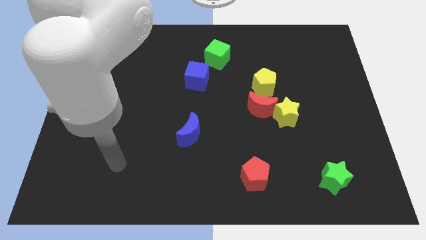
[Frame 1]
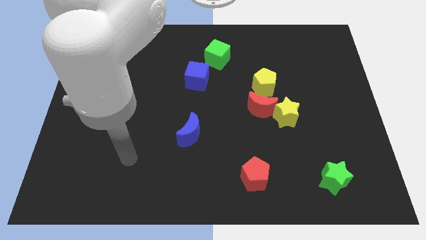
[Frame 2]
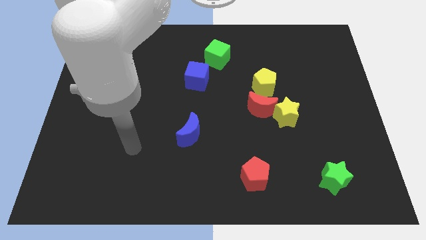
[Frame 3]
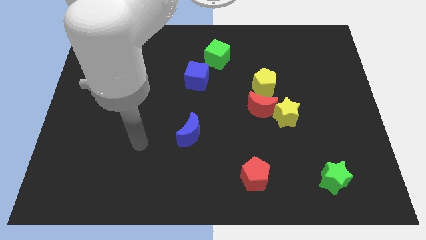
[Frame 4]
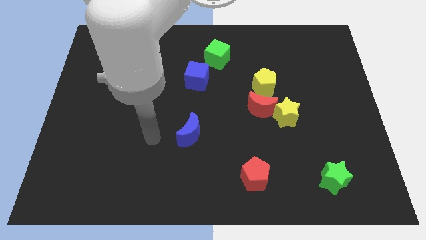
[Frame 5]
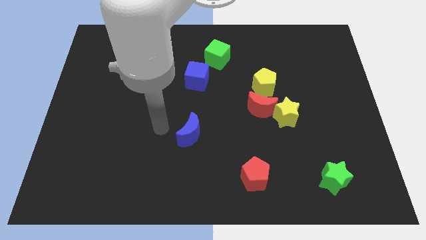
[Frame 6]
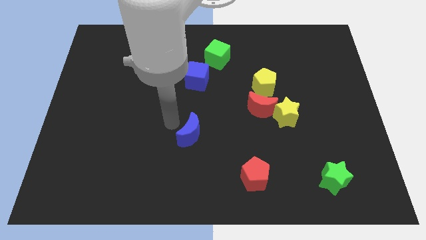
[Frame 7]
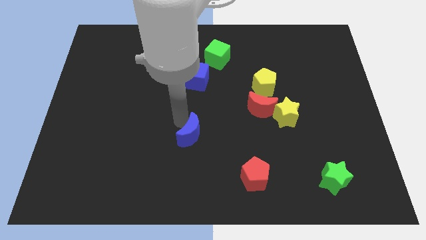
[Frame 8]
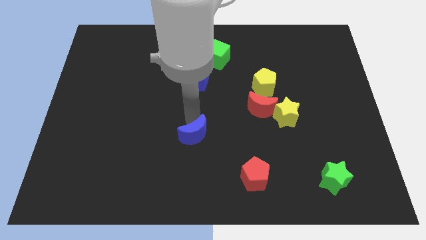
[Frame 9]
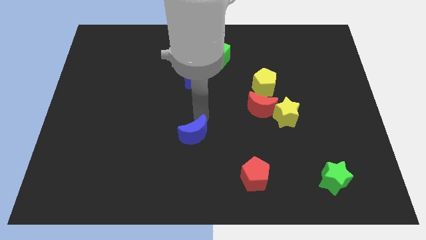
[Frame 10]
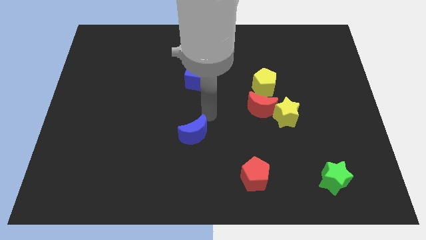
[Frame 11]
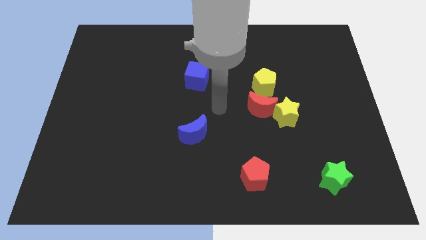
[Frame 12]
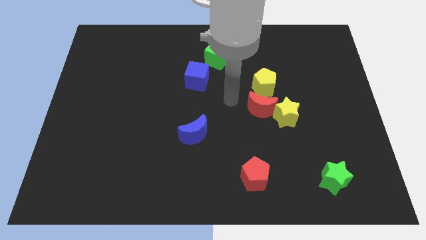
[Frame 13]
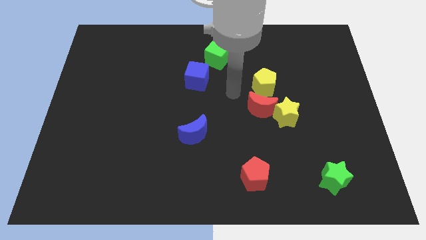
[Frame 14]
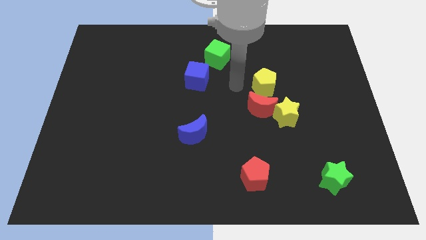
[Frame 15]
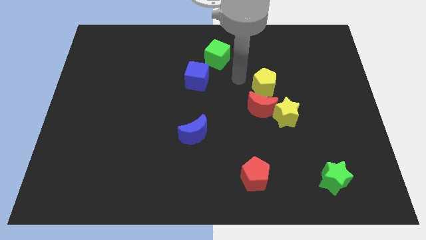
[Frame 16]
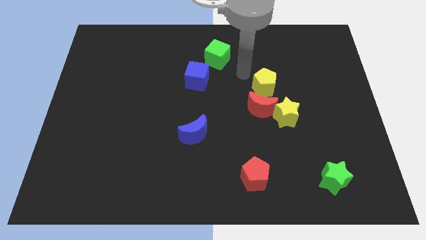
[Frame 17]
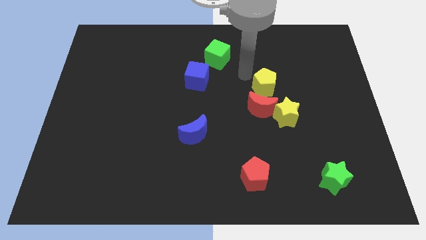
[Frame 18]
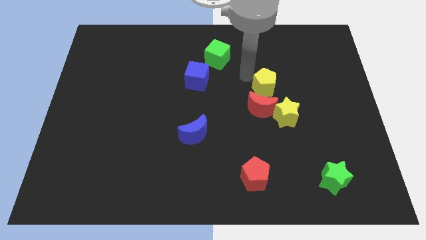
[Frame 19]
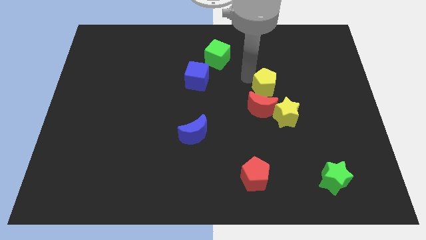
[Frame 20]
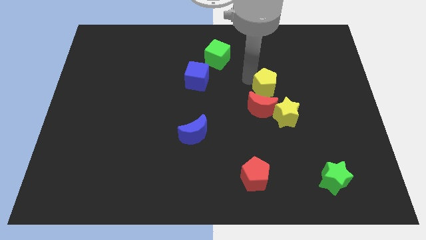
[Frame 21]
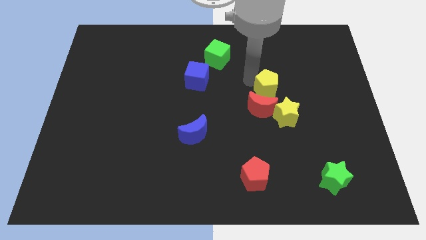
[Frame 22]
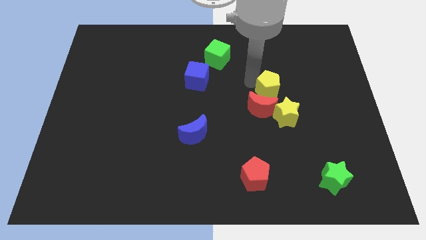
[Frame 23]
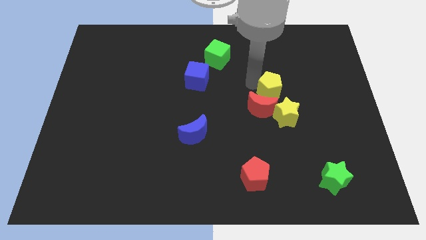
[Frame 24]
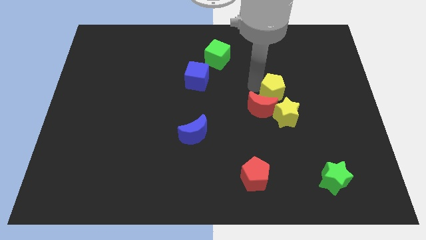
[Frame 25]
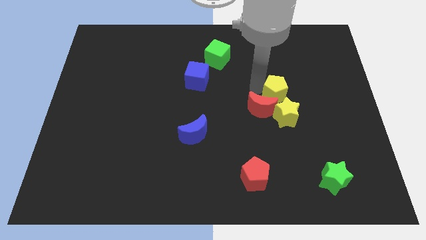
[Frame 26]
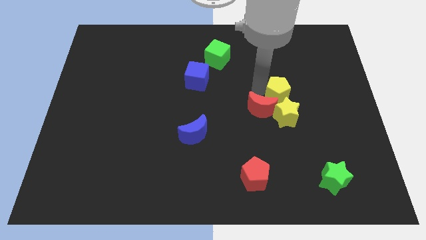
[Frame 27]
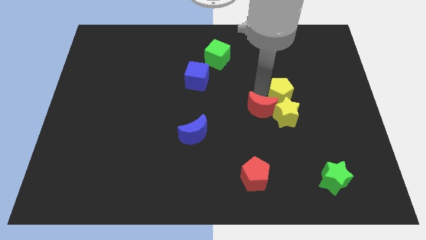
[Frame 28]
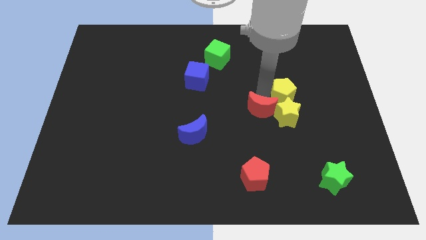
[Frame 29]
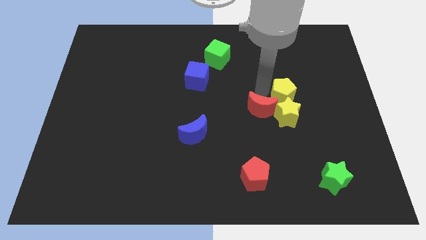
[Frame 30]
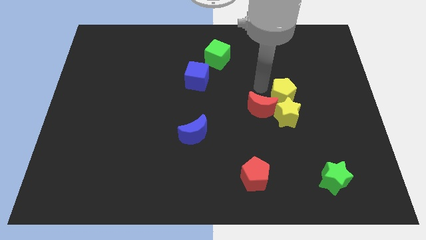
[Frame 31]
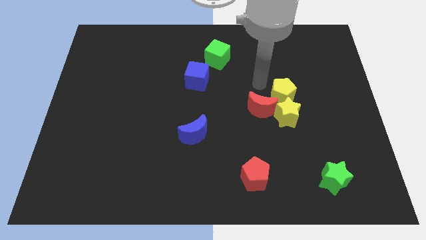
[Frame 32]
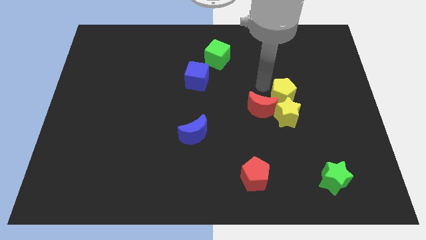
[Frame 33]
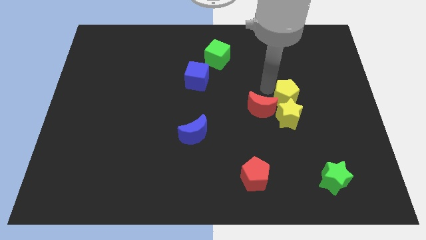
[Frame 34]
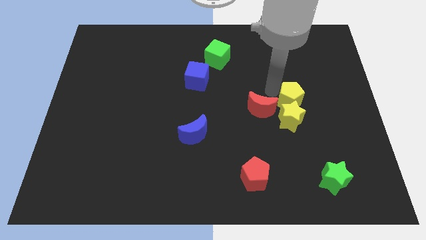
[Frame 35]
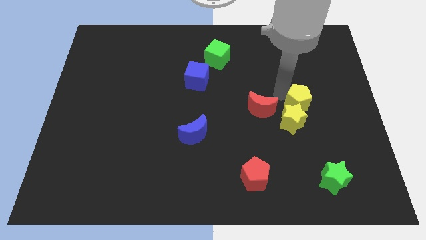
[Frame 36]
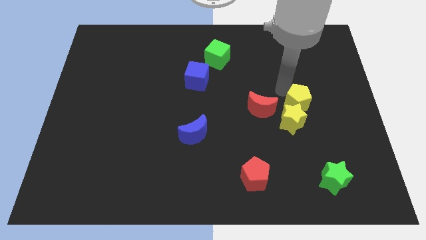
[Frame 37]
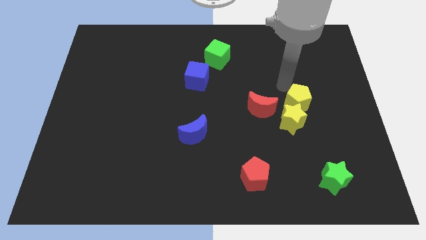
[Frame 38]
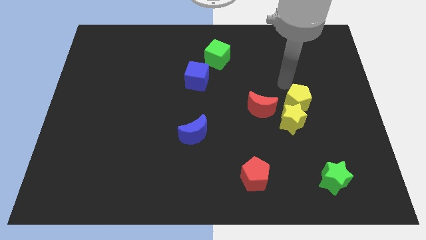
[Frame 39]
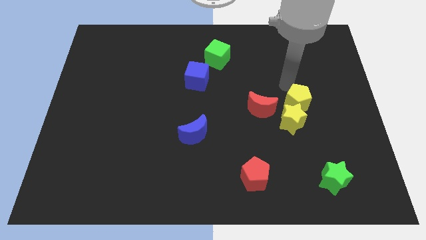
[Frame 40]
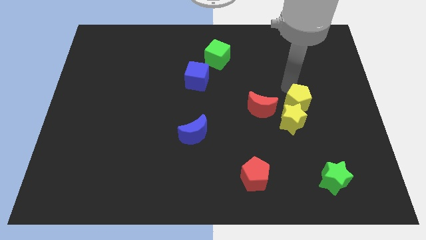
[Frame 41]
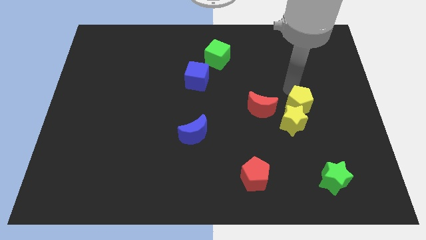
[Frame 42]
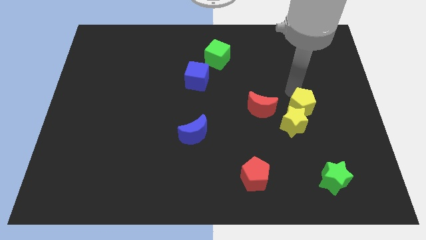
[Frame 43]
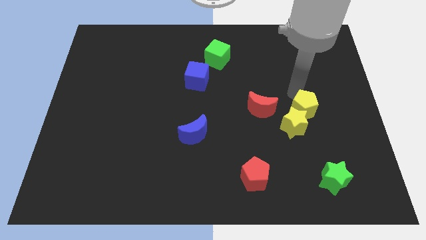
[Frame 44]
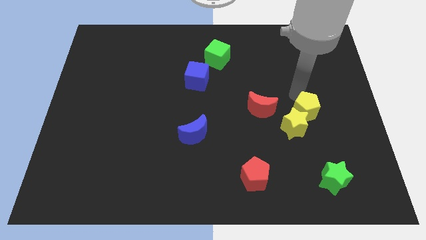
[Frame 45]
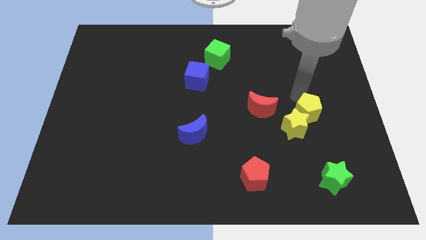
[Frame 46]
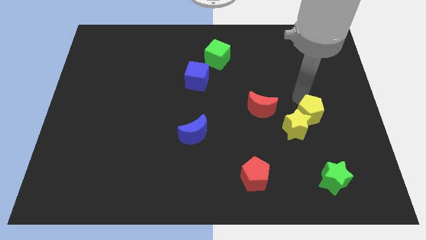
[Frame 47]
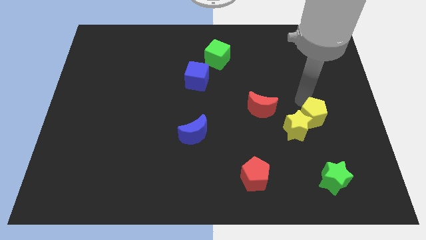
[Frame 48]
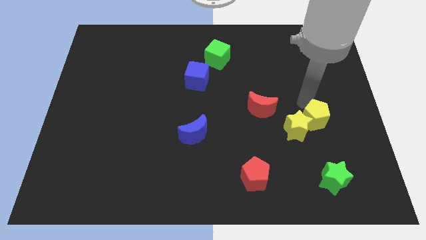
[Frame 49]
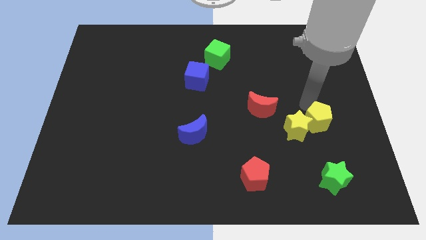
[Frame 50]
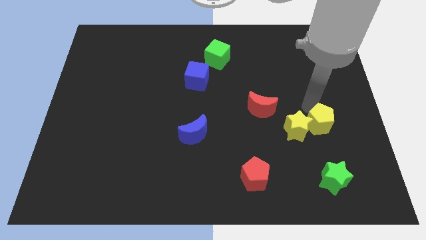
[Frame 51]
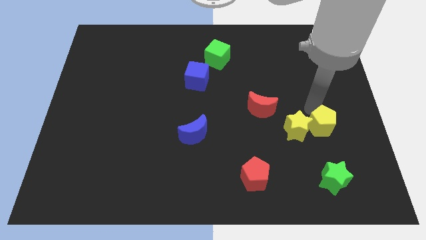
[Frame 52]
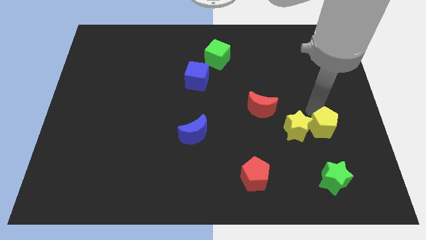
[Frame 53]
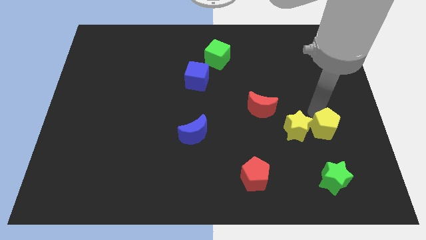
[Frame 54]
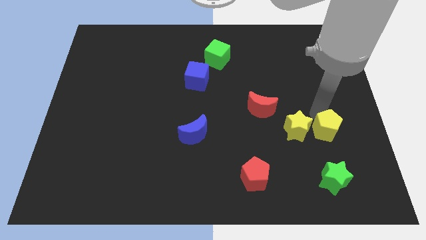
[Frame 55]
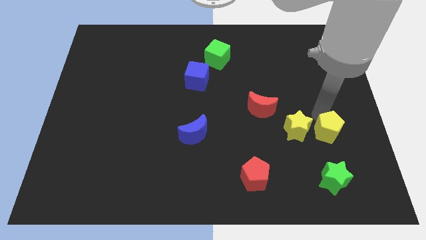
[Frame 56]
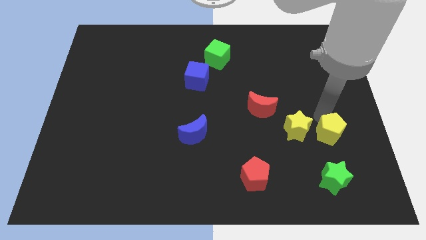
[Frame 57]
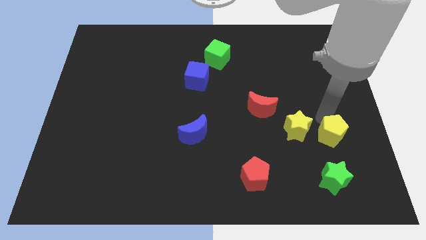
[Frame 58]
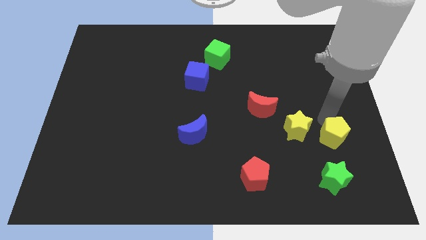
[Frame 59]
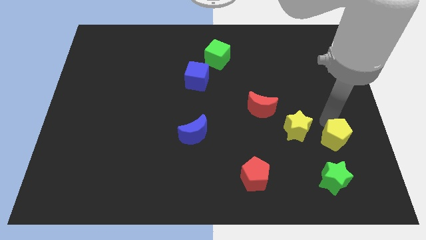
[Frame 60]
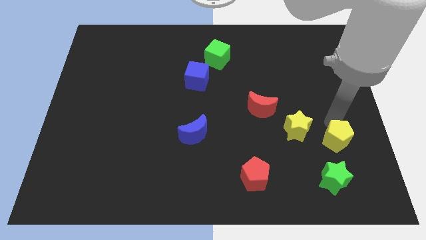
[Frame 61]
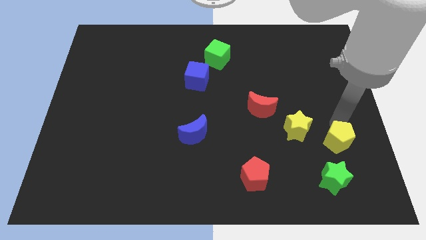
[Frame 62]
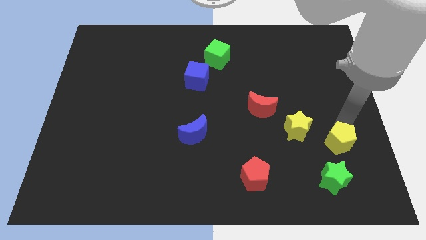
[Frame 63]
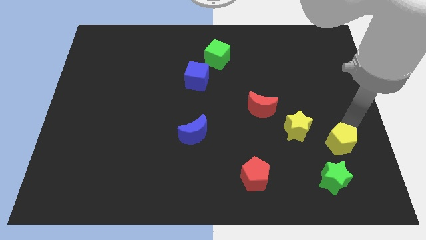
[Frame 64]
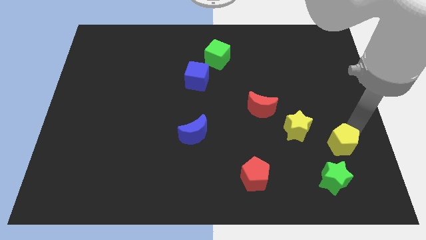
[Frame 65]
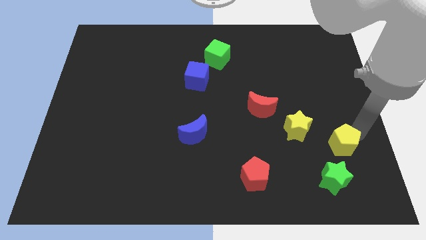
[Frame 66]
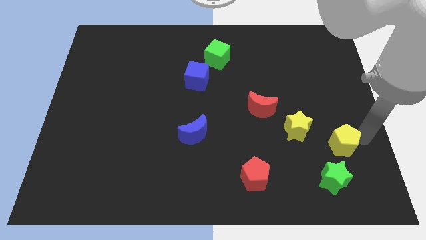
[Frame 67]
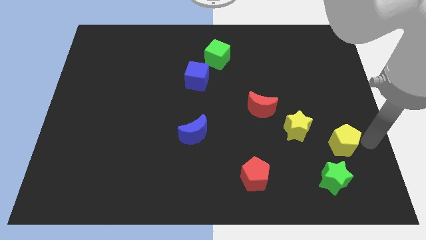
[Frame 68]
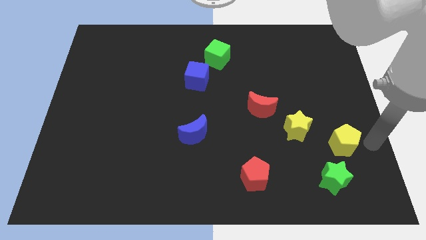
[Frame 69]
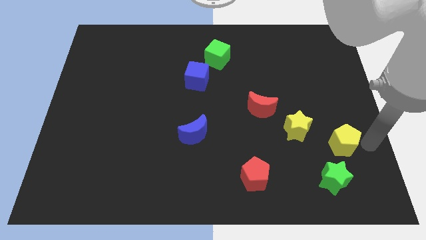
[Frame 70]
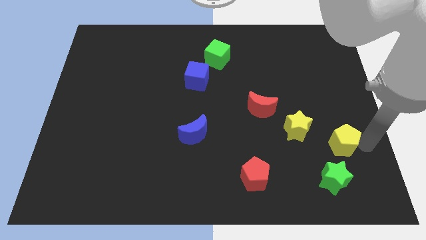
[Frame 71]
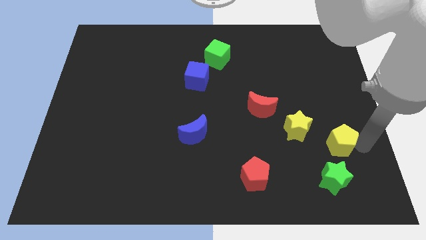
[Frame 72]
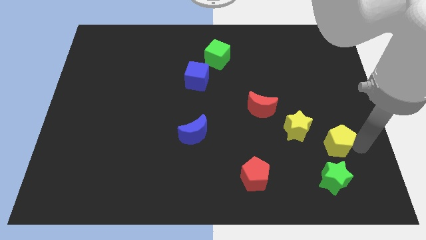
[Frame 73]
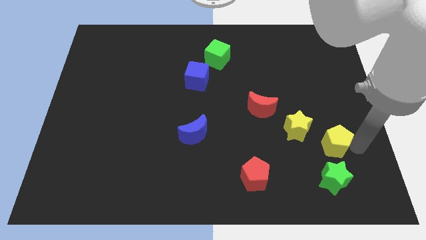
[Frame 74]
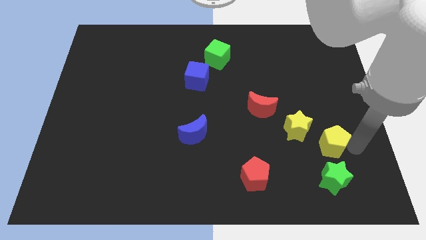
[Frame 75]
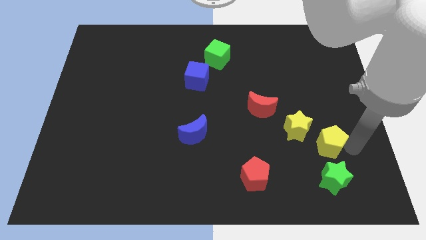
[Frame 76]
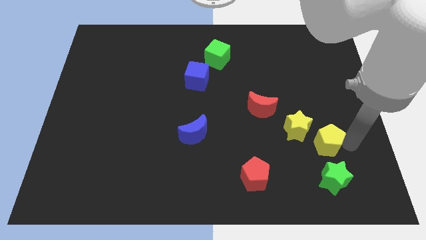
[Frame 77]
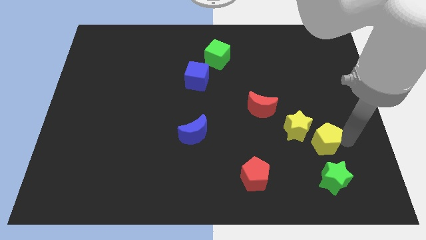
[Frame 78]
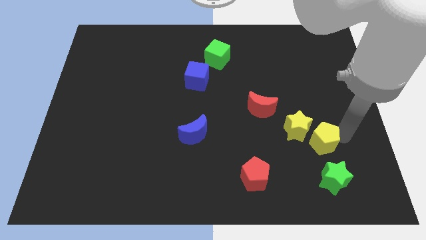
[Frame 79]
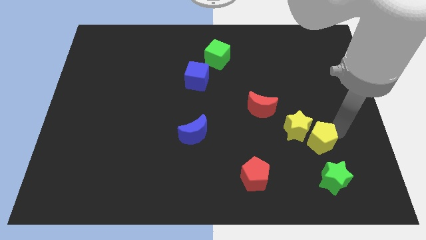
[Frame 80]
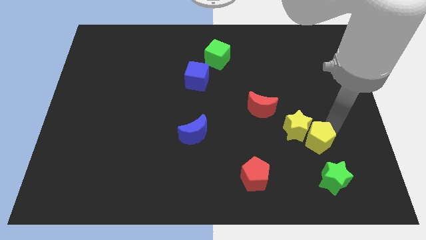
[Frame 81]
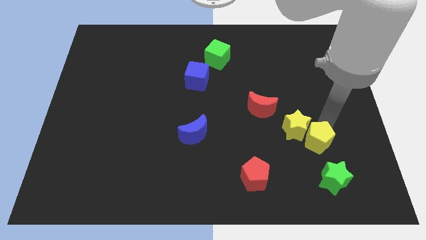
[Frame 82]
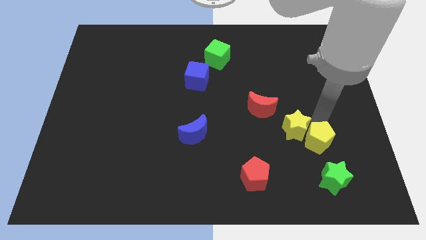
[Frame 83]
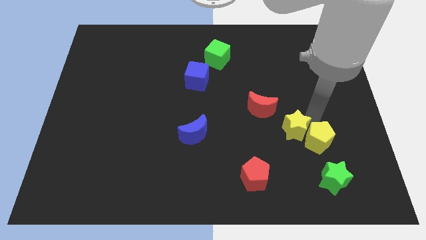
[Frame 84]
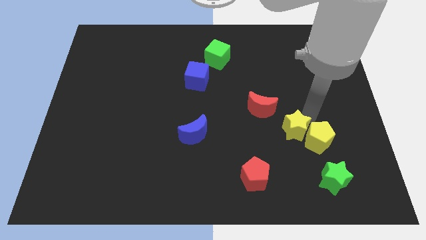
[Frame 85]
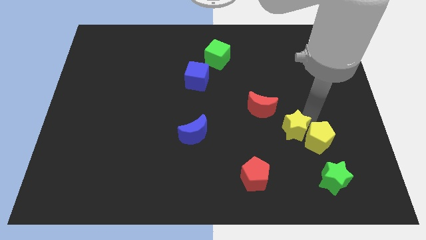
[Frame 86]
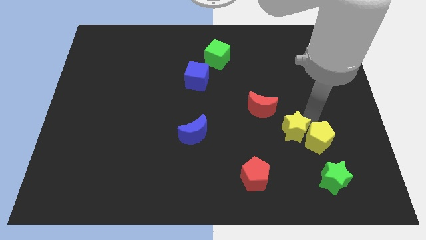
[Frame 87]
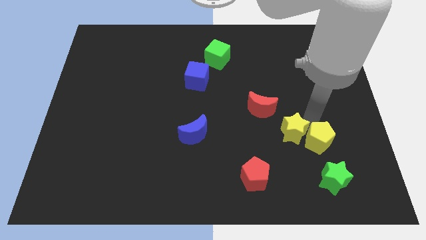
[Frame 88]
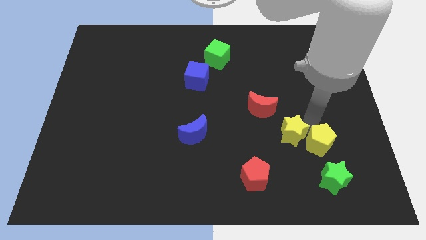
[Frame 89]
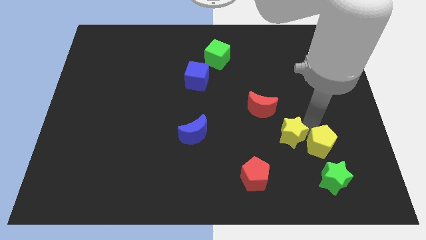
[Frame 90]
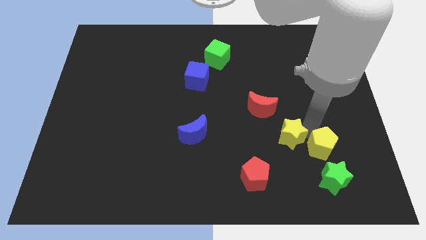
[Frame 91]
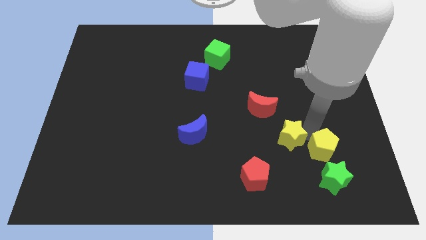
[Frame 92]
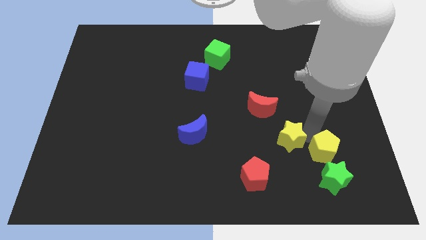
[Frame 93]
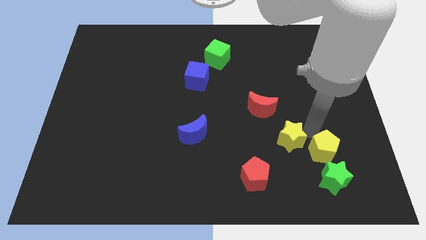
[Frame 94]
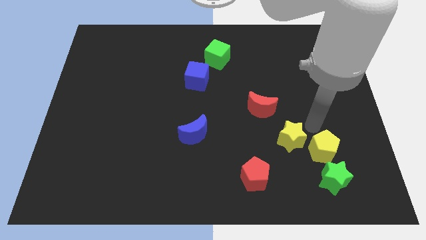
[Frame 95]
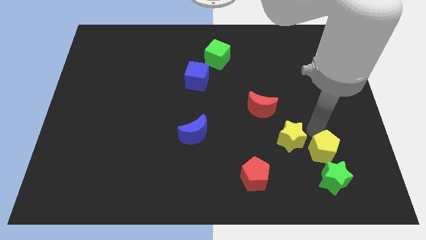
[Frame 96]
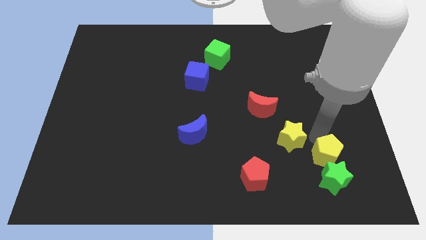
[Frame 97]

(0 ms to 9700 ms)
move the yellow pentagon next to the green star
